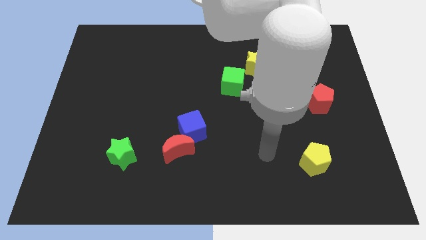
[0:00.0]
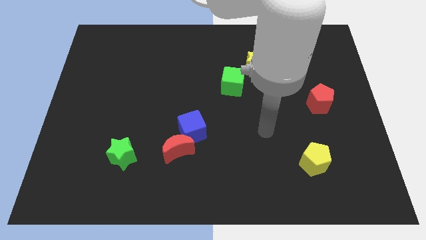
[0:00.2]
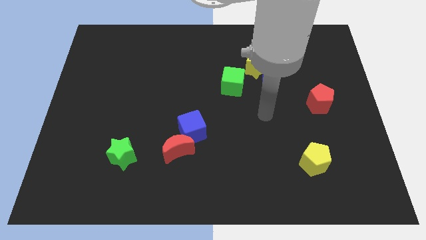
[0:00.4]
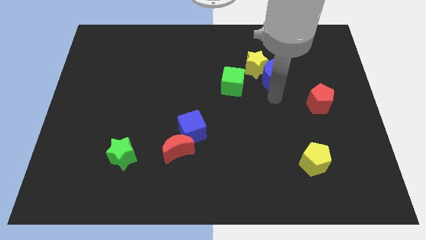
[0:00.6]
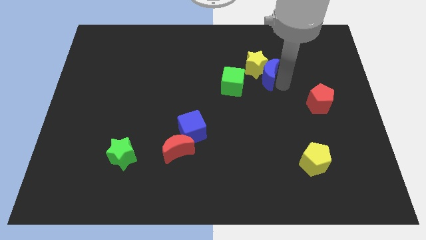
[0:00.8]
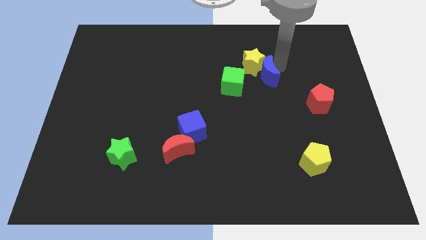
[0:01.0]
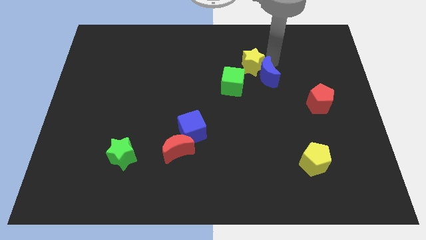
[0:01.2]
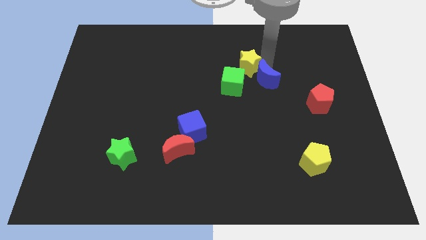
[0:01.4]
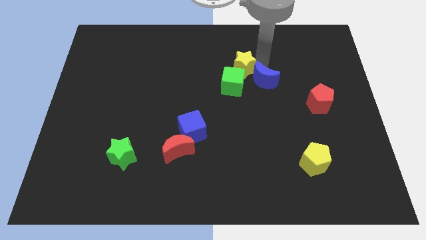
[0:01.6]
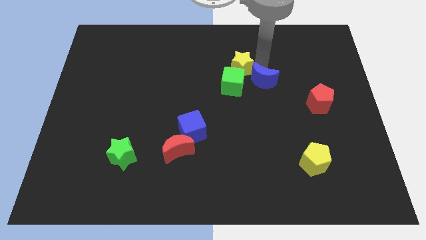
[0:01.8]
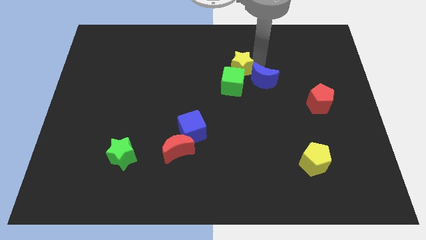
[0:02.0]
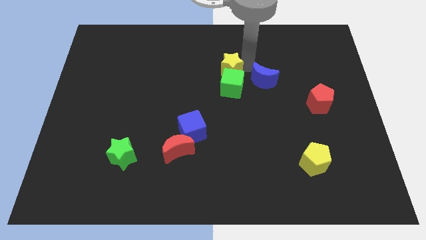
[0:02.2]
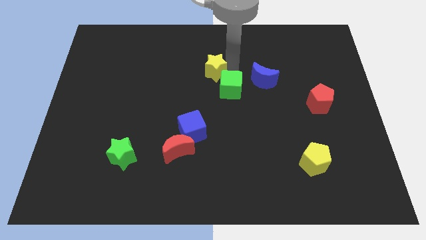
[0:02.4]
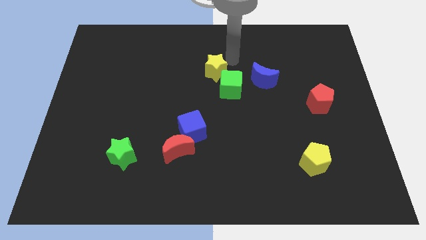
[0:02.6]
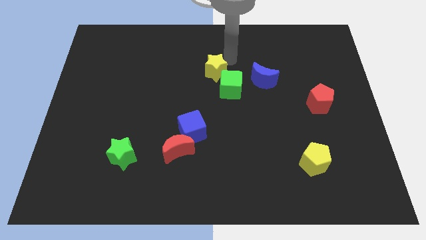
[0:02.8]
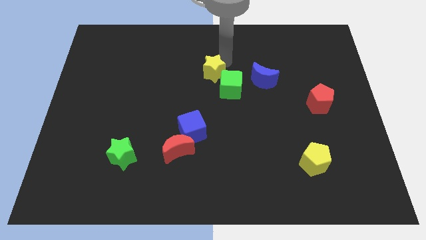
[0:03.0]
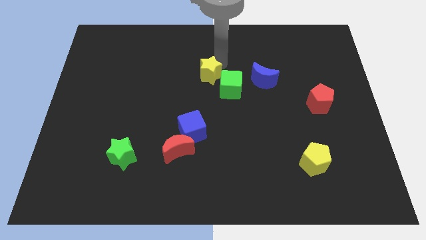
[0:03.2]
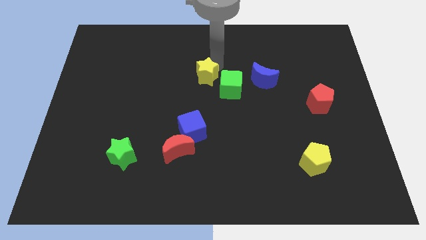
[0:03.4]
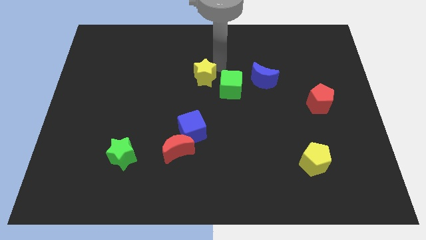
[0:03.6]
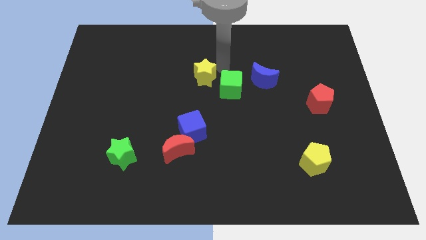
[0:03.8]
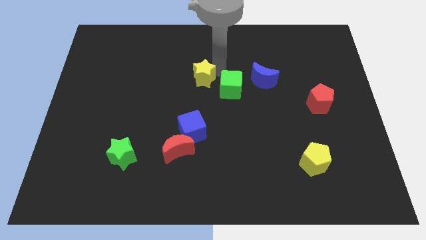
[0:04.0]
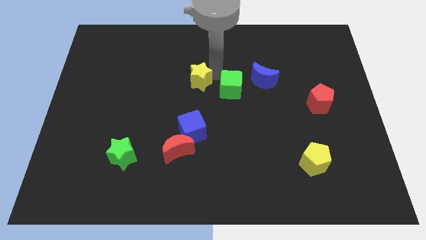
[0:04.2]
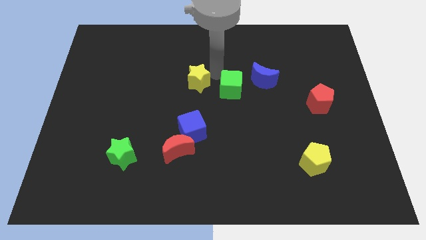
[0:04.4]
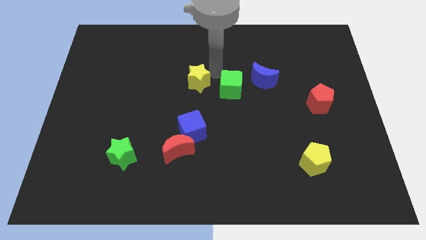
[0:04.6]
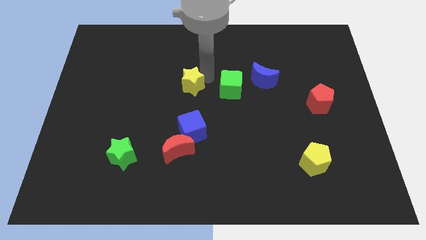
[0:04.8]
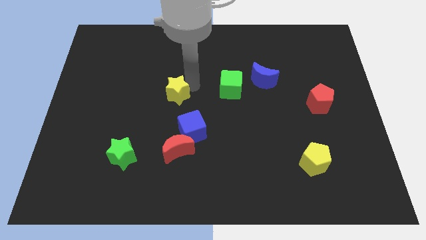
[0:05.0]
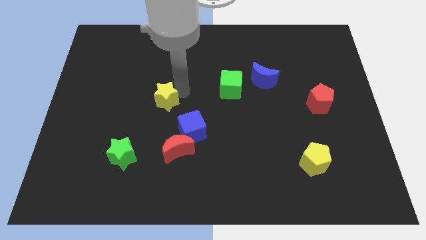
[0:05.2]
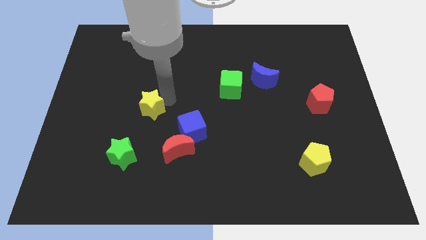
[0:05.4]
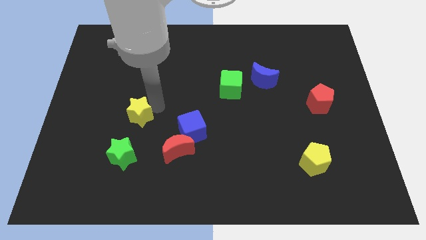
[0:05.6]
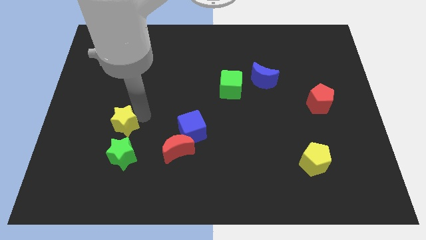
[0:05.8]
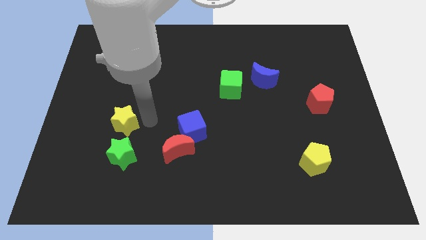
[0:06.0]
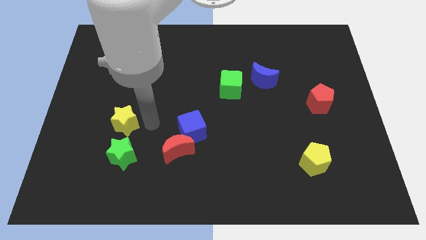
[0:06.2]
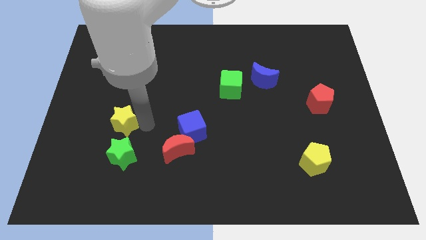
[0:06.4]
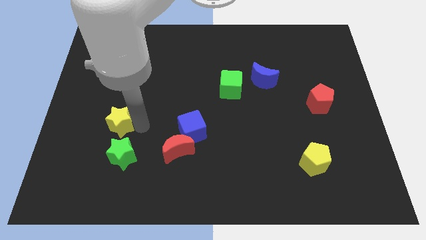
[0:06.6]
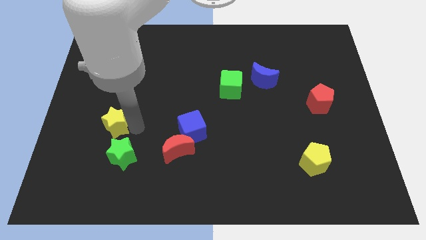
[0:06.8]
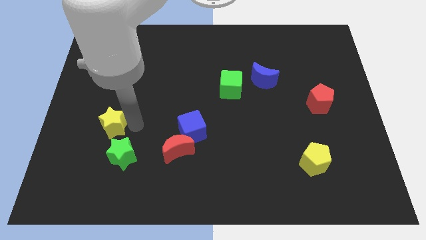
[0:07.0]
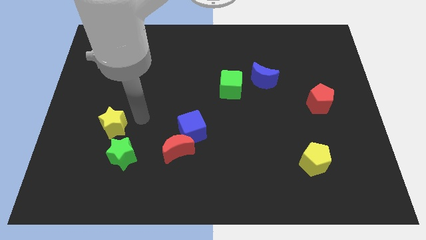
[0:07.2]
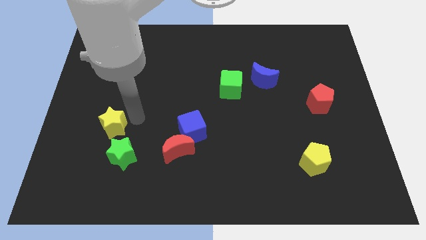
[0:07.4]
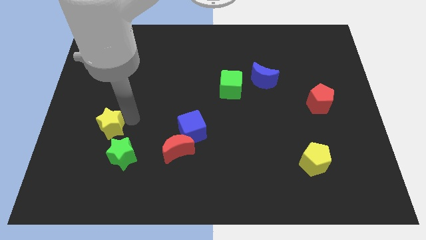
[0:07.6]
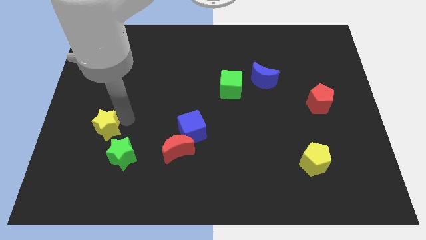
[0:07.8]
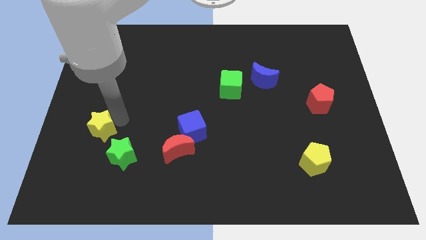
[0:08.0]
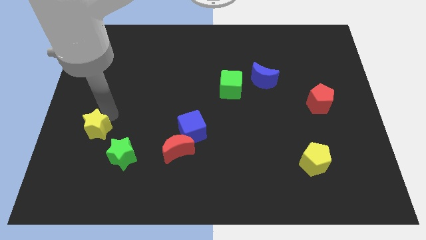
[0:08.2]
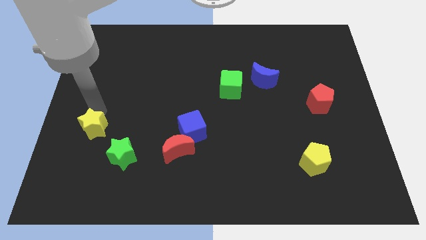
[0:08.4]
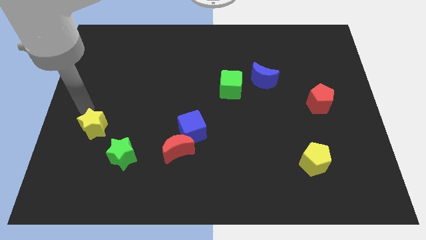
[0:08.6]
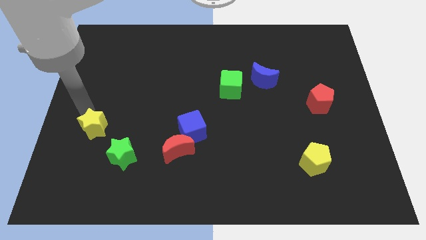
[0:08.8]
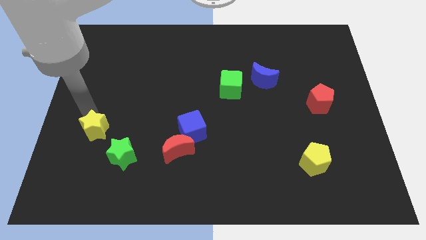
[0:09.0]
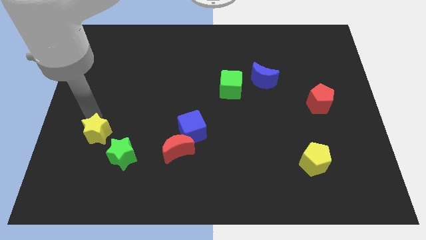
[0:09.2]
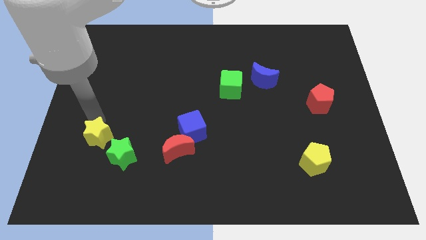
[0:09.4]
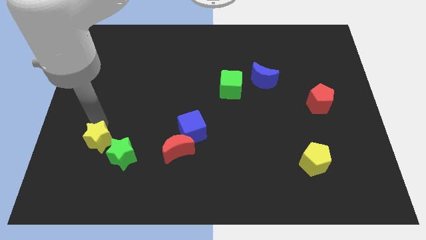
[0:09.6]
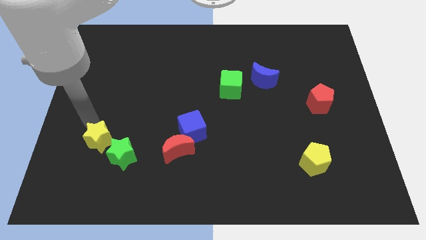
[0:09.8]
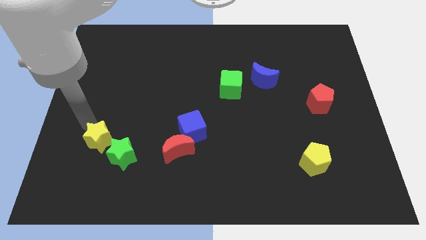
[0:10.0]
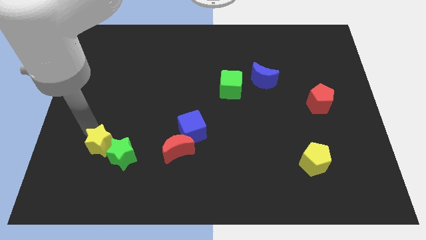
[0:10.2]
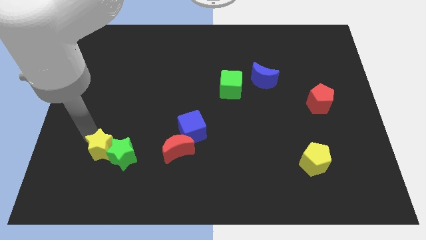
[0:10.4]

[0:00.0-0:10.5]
move the yellow star to the left side of the red moon

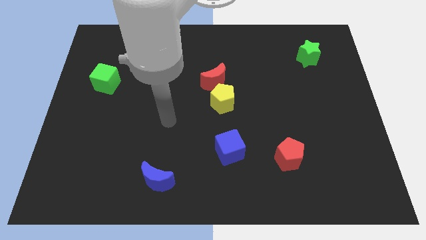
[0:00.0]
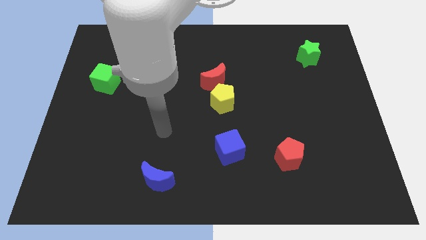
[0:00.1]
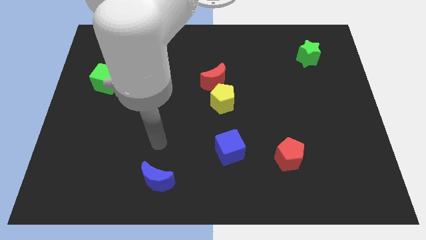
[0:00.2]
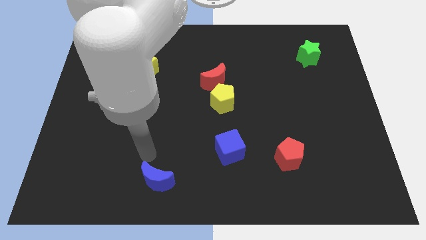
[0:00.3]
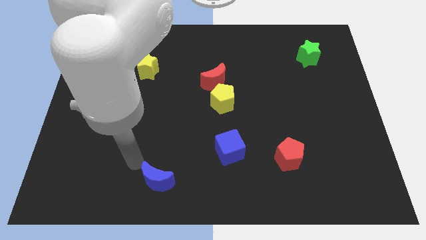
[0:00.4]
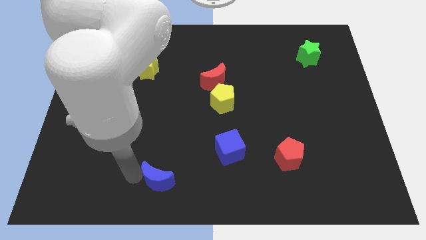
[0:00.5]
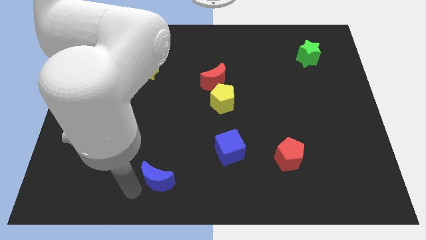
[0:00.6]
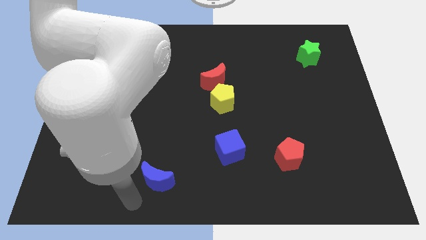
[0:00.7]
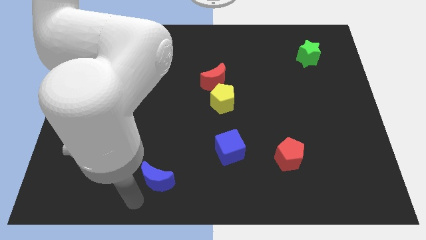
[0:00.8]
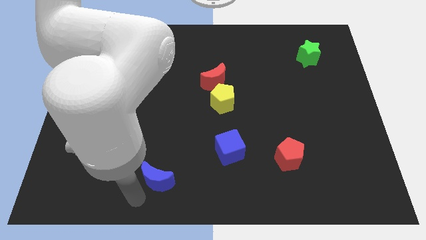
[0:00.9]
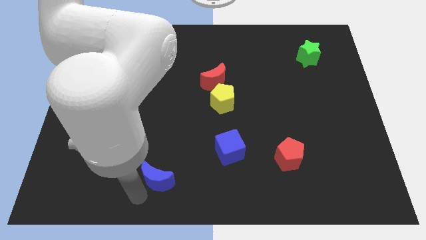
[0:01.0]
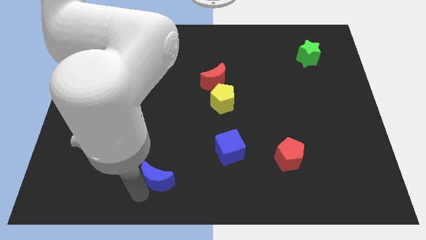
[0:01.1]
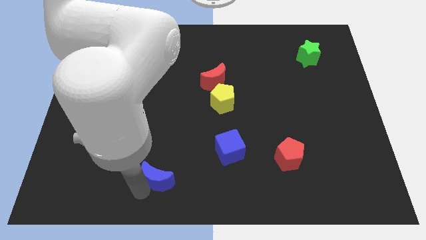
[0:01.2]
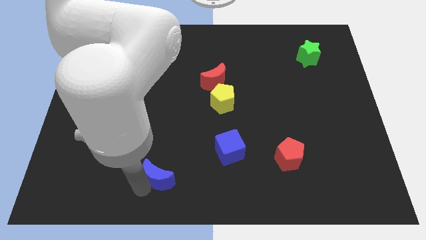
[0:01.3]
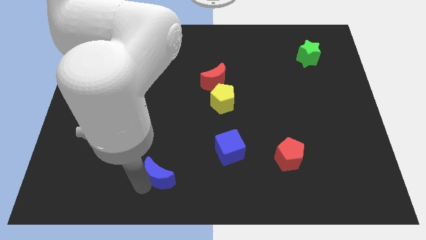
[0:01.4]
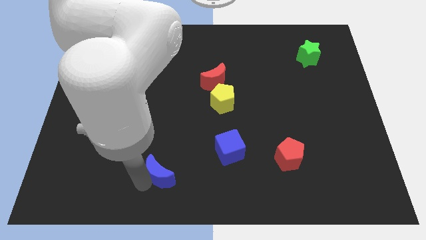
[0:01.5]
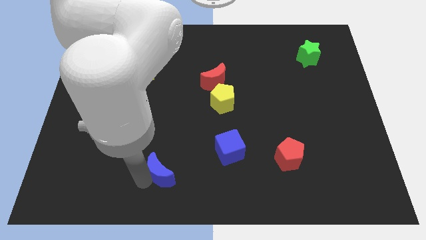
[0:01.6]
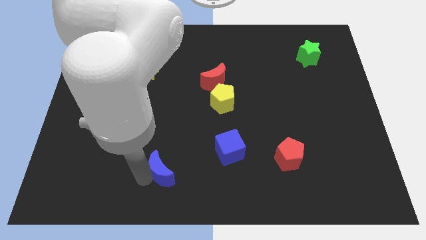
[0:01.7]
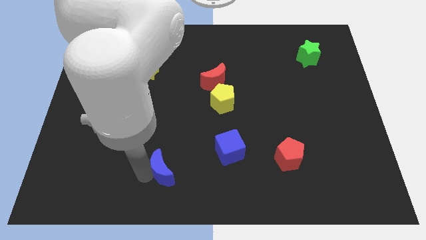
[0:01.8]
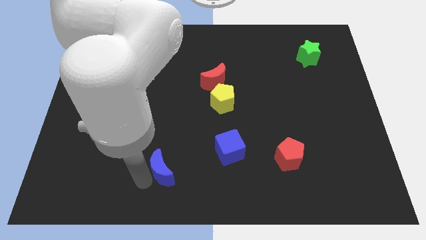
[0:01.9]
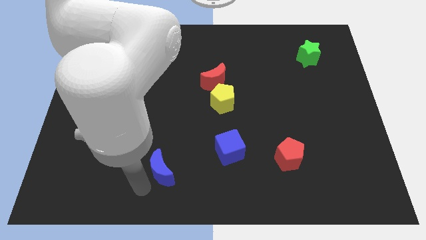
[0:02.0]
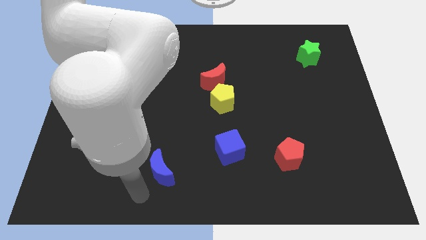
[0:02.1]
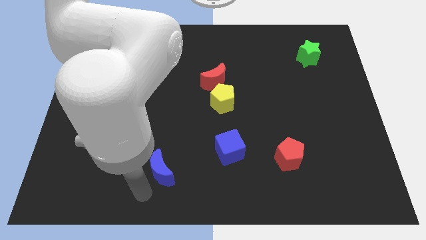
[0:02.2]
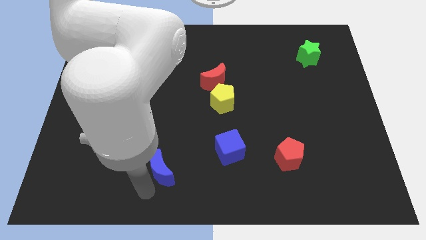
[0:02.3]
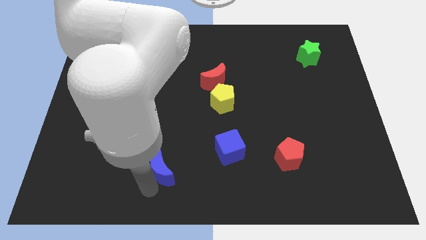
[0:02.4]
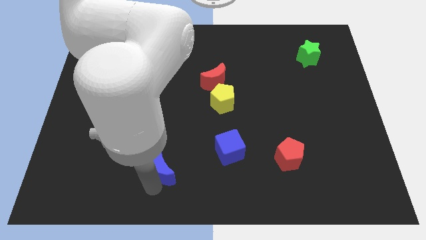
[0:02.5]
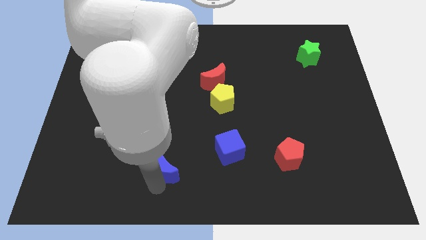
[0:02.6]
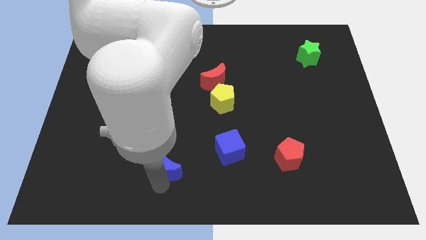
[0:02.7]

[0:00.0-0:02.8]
push the blue moon to the left of the blue cube
